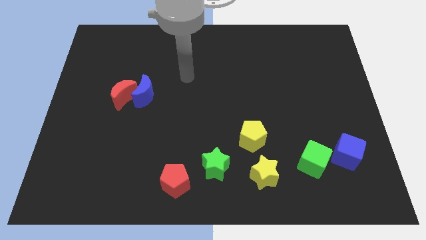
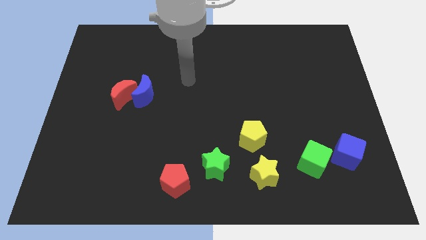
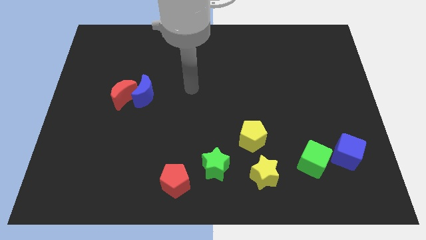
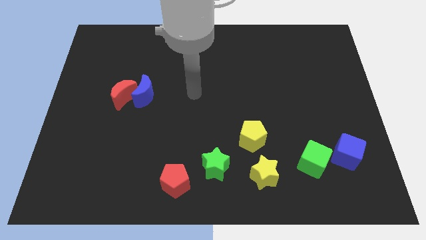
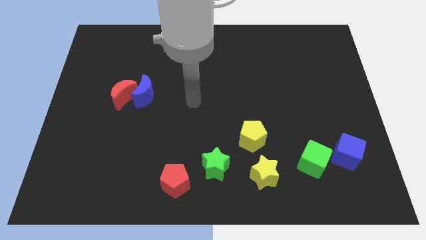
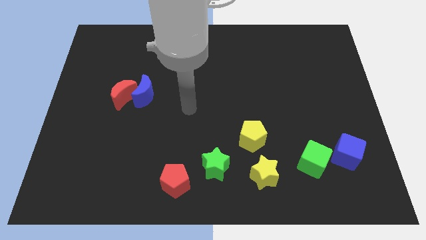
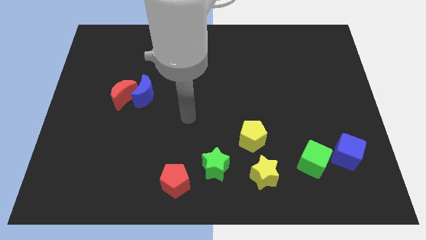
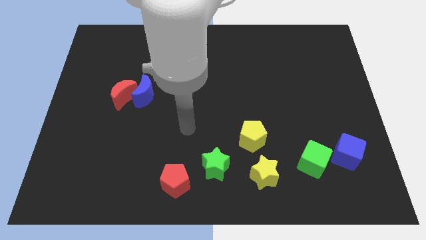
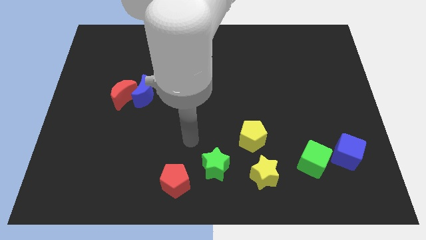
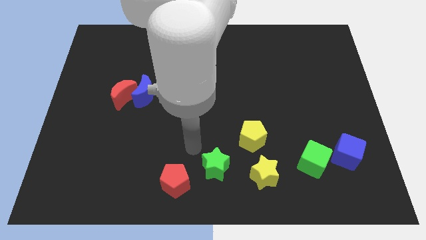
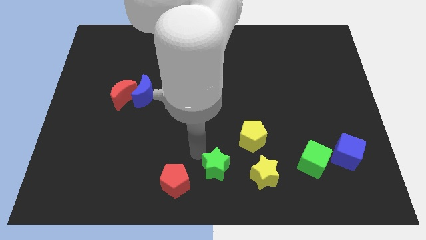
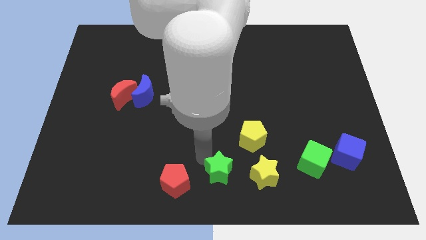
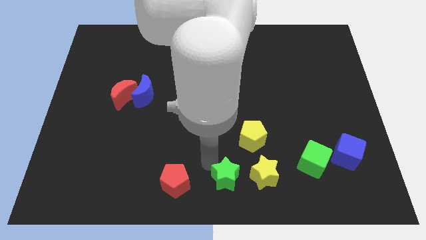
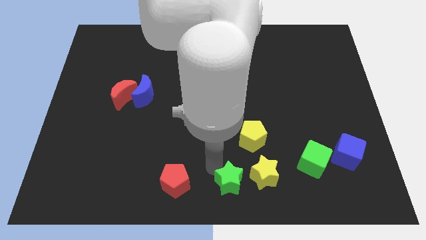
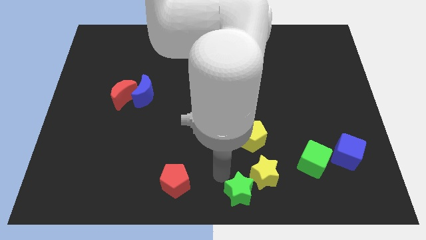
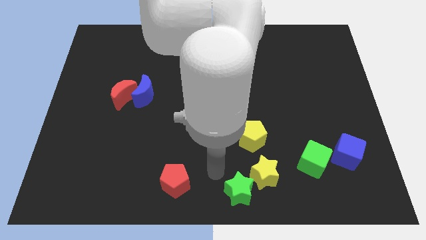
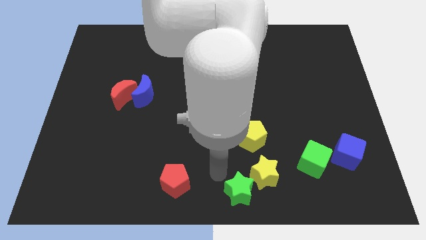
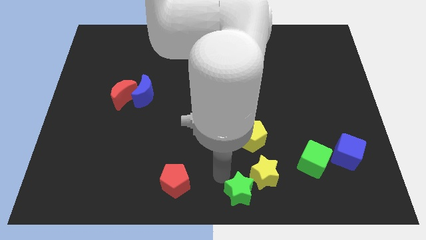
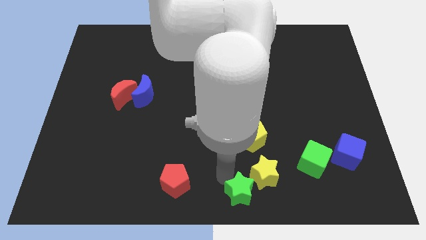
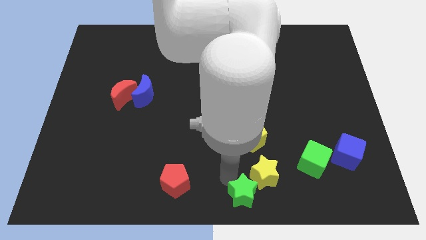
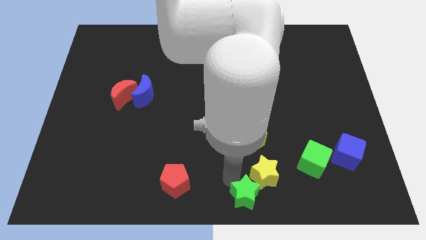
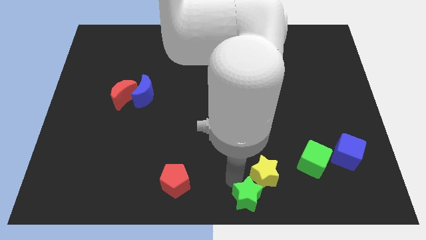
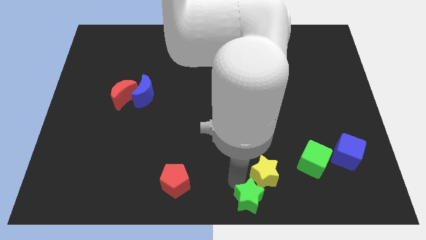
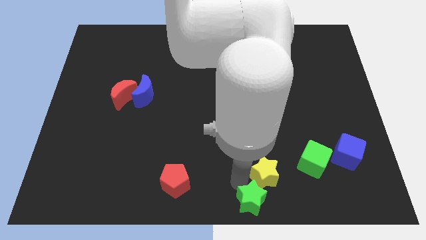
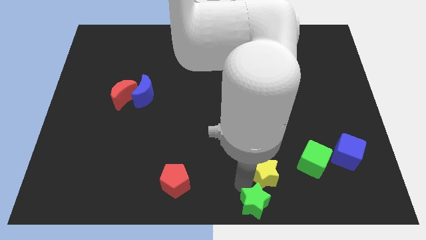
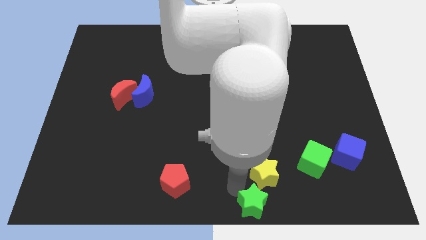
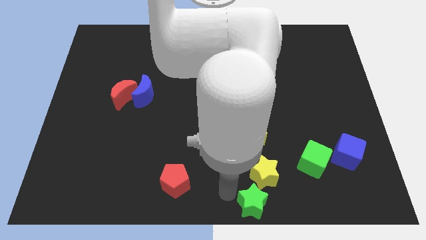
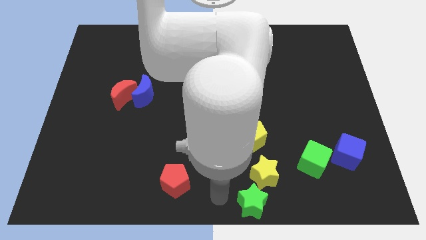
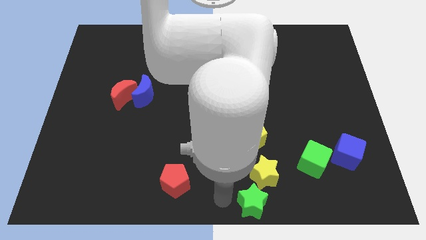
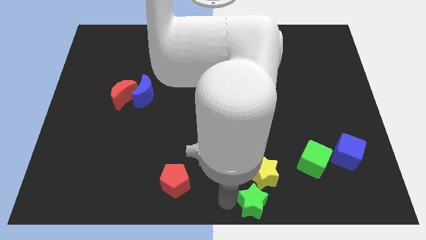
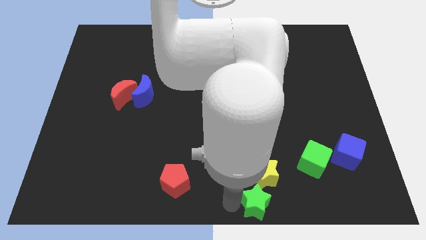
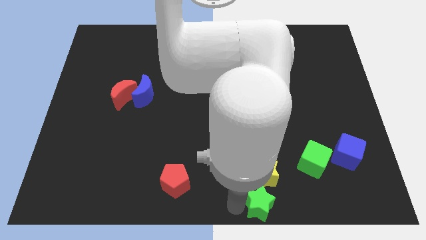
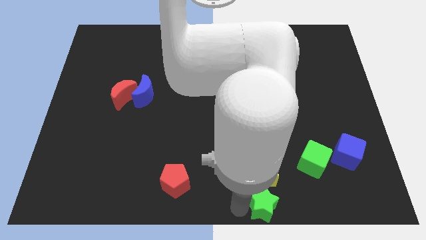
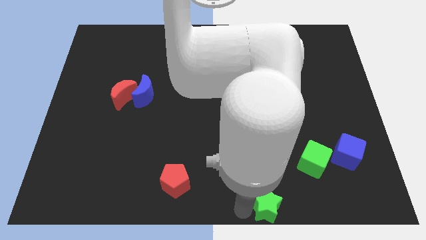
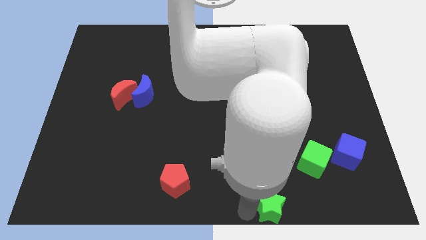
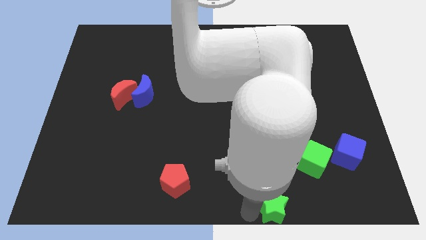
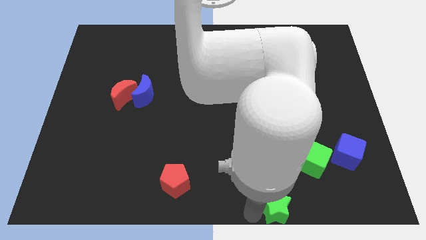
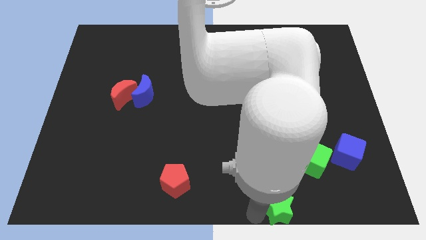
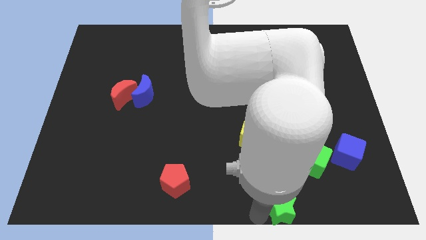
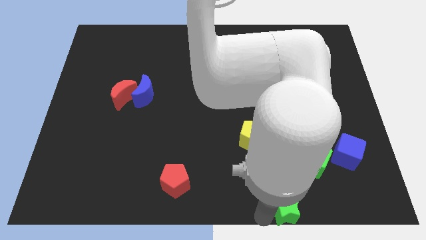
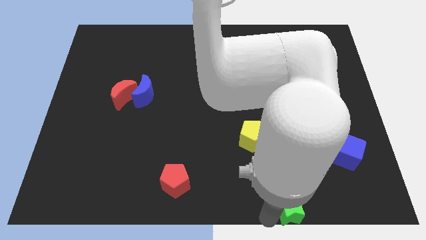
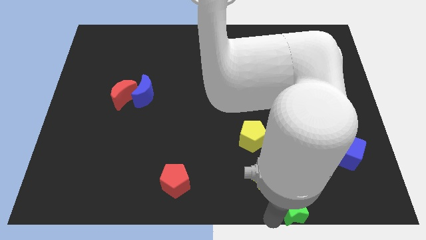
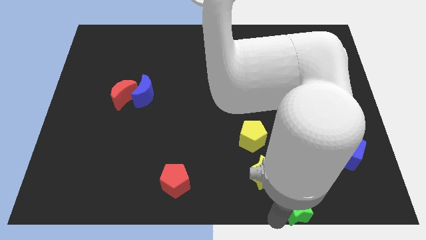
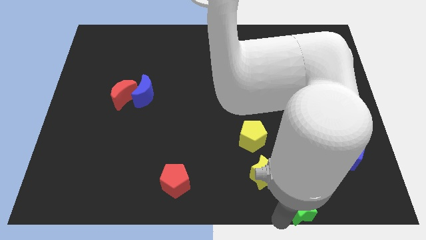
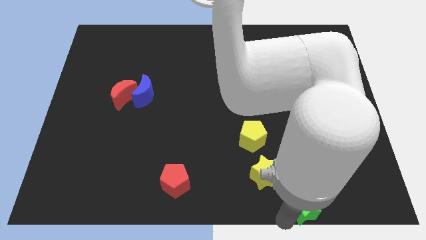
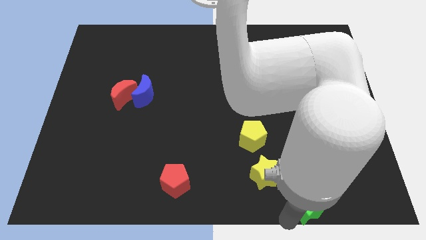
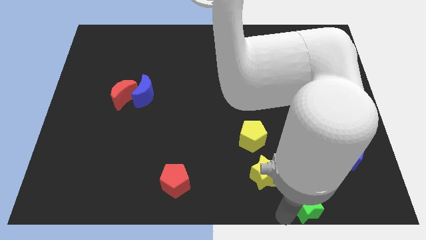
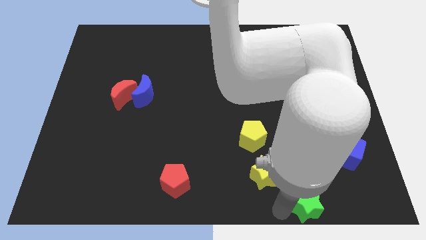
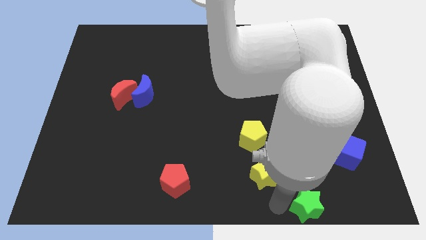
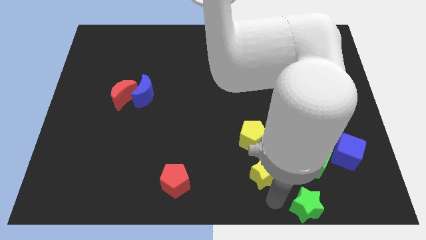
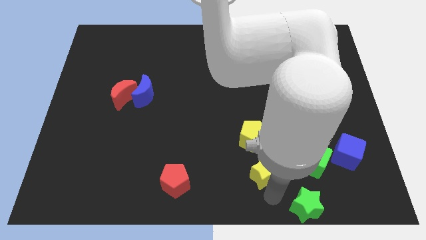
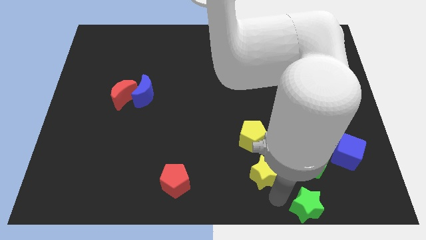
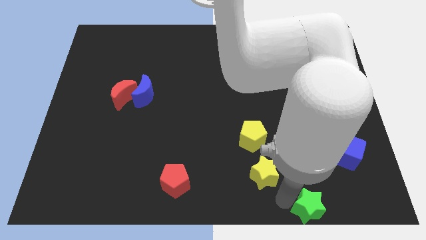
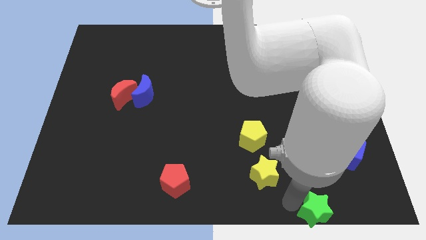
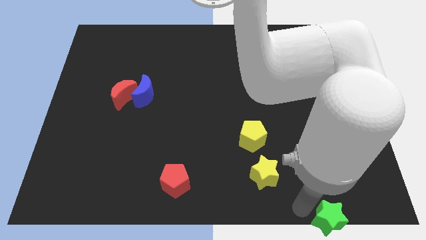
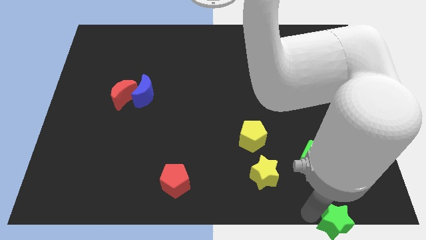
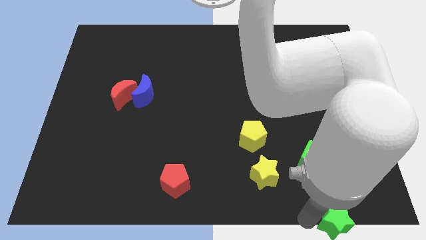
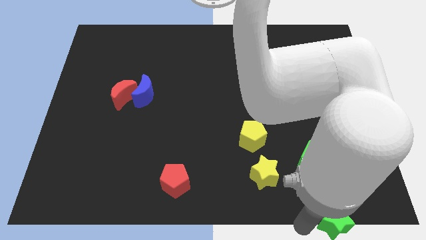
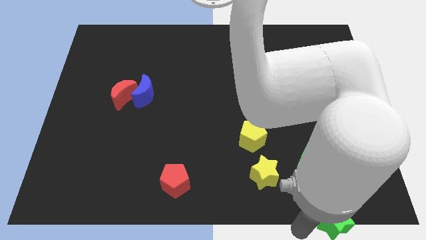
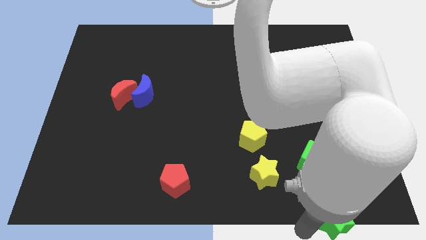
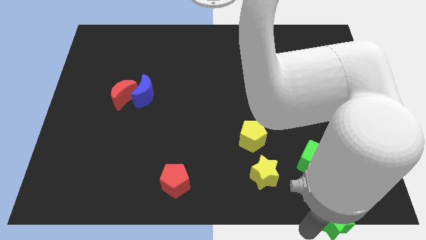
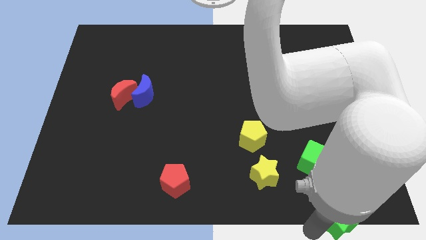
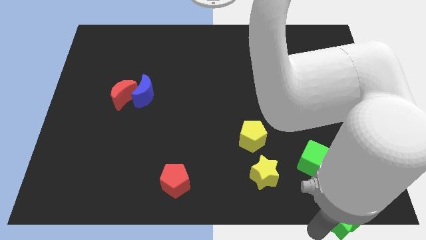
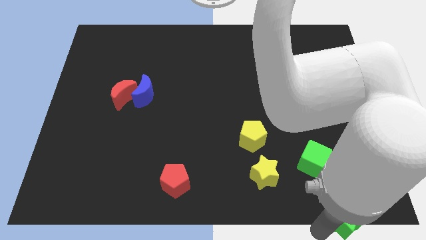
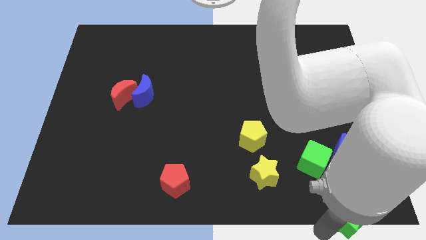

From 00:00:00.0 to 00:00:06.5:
move the green star to the lower right corner
